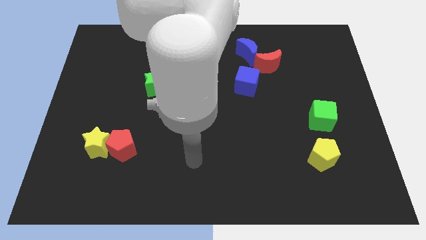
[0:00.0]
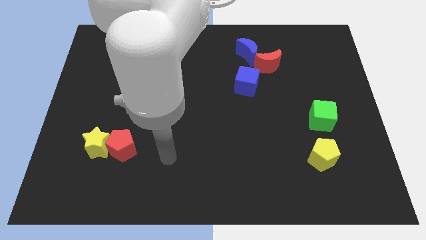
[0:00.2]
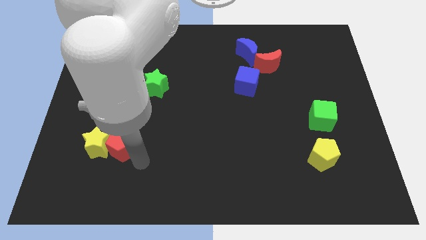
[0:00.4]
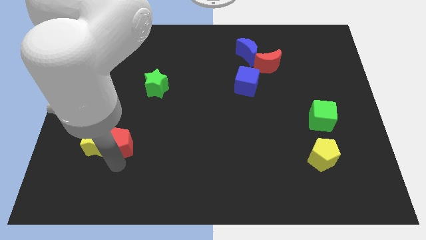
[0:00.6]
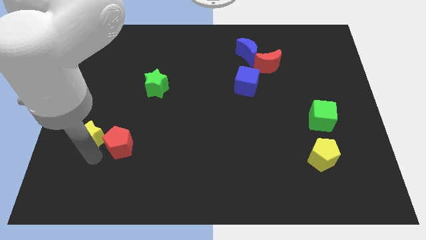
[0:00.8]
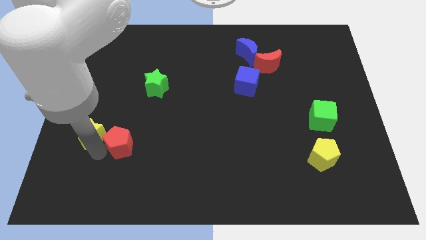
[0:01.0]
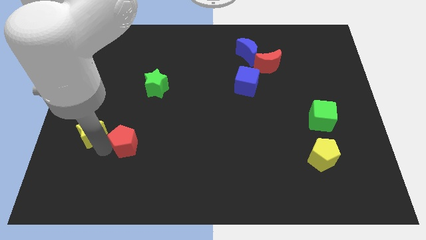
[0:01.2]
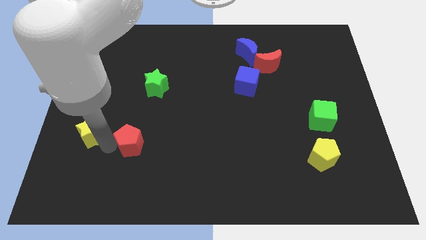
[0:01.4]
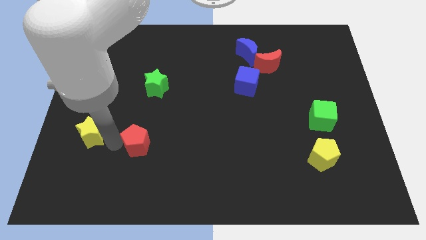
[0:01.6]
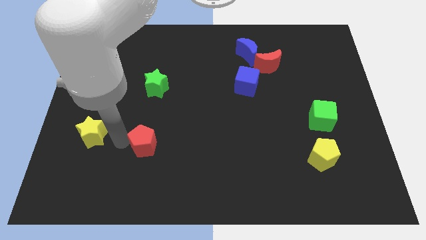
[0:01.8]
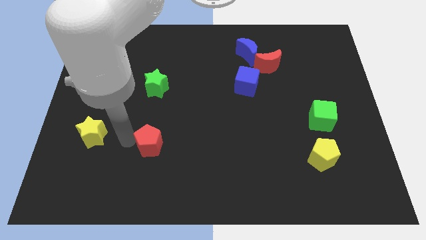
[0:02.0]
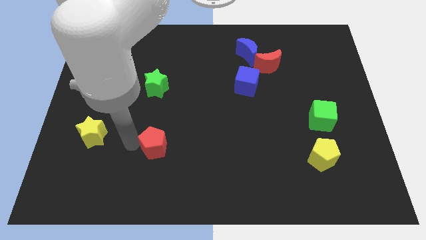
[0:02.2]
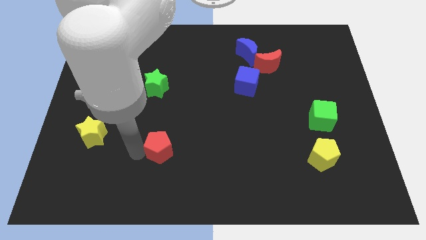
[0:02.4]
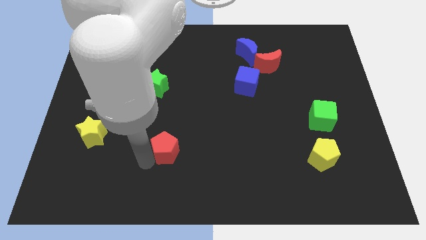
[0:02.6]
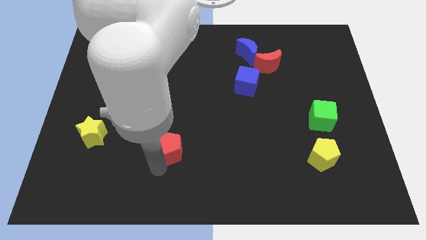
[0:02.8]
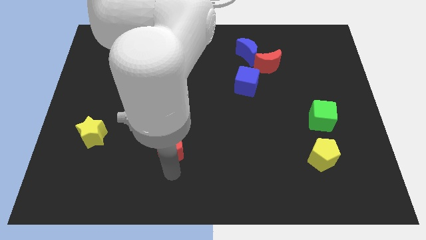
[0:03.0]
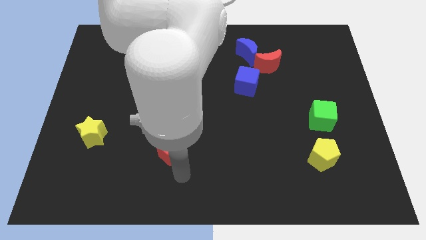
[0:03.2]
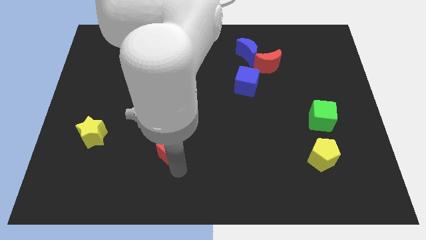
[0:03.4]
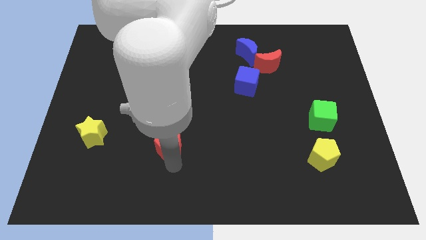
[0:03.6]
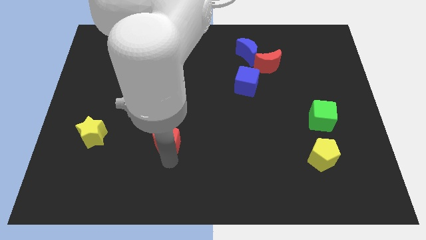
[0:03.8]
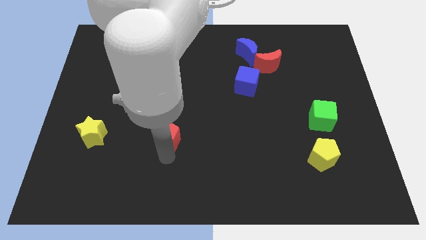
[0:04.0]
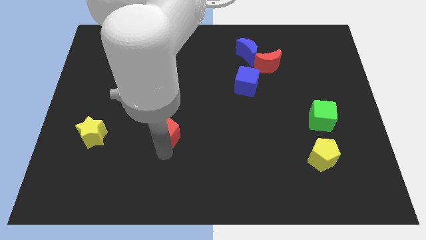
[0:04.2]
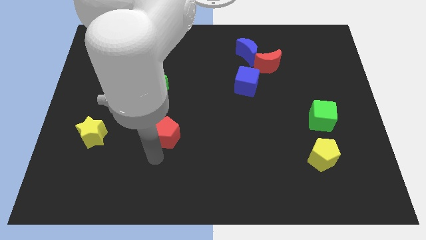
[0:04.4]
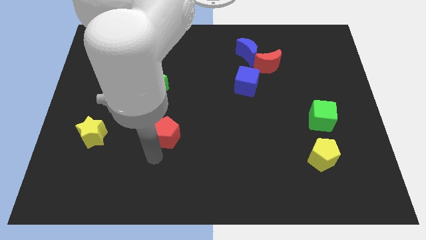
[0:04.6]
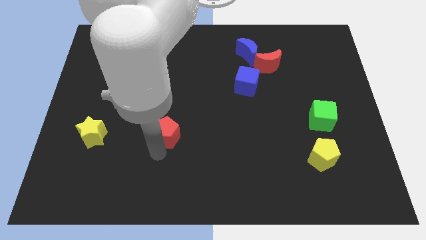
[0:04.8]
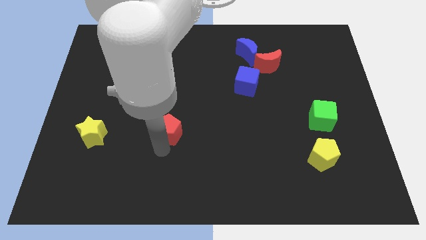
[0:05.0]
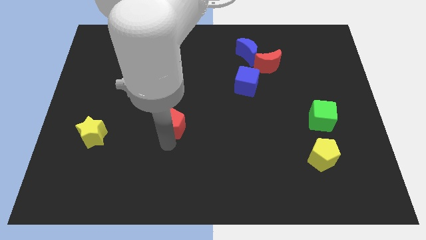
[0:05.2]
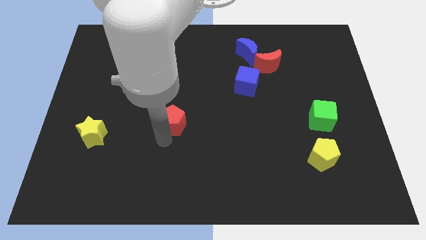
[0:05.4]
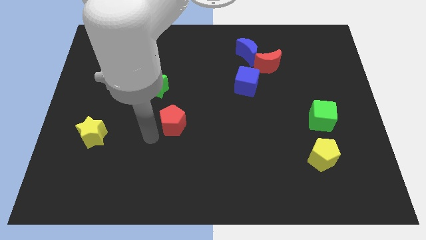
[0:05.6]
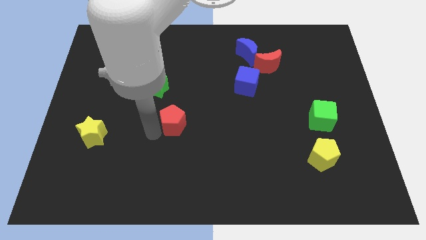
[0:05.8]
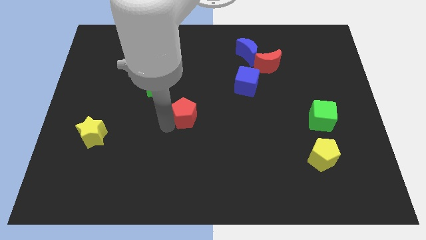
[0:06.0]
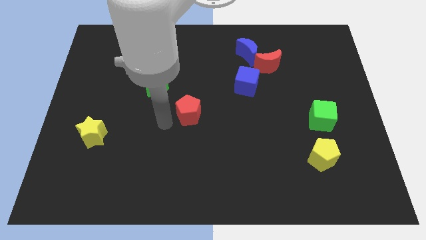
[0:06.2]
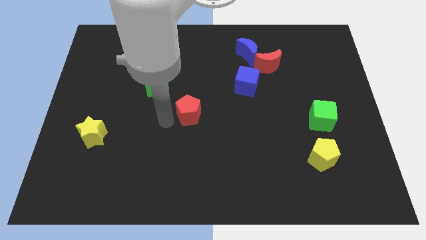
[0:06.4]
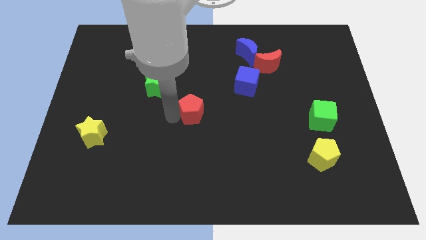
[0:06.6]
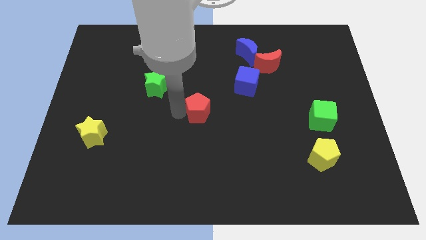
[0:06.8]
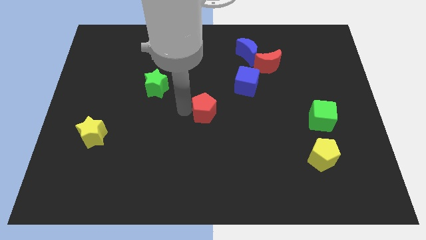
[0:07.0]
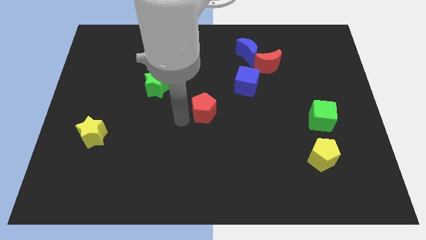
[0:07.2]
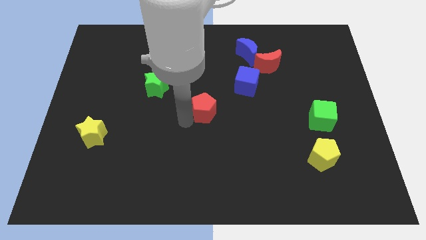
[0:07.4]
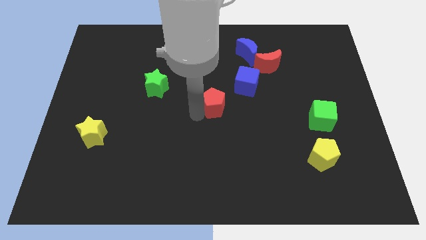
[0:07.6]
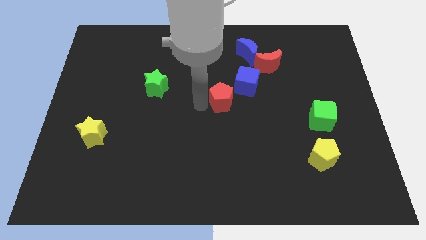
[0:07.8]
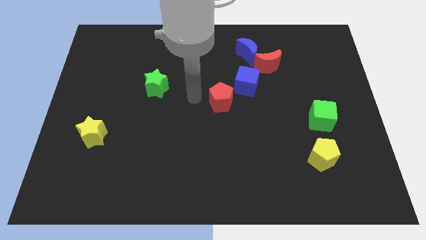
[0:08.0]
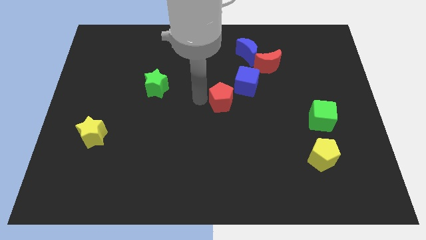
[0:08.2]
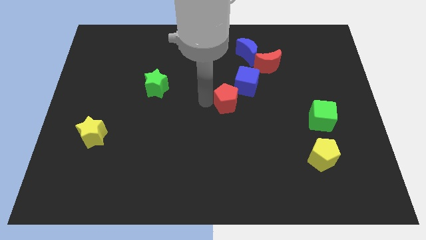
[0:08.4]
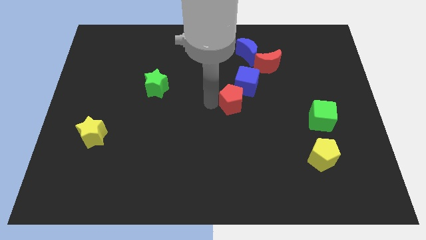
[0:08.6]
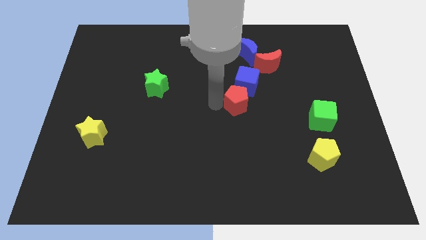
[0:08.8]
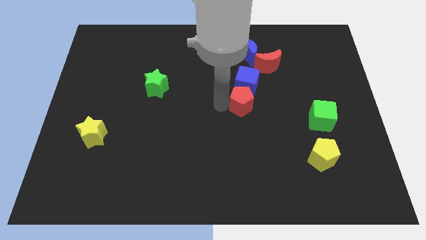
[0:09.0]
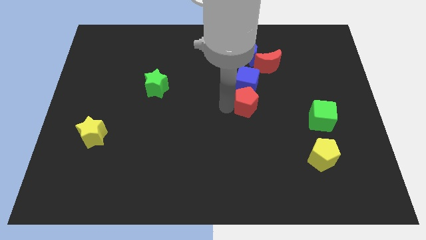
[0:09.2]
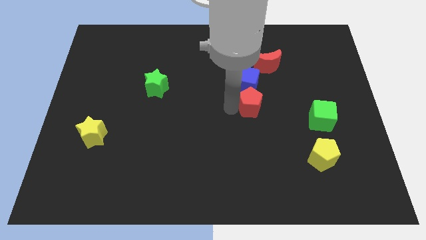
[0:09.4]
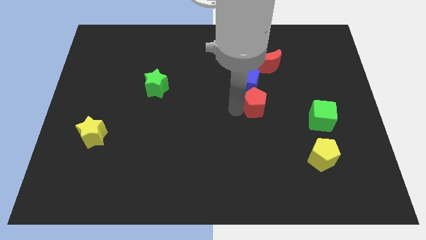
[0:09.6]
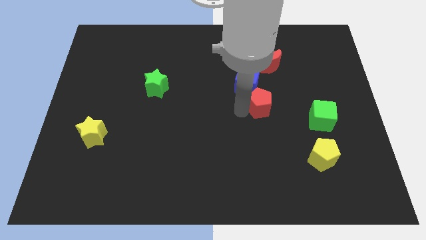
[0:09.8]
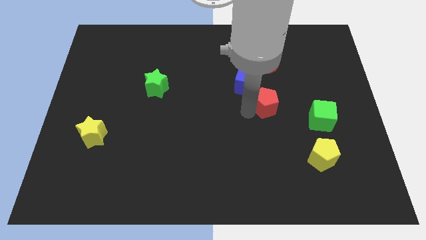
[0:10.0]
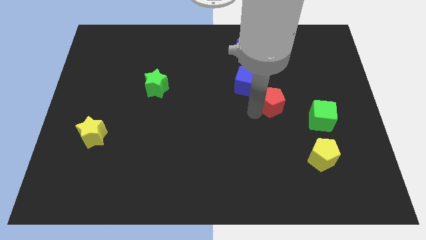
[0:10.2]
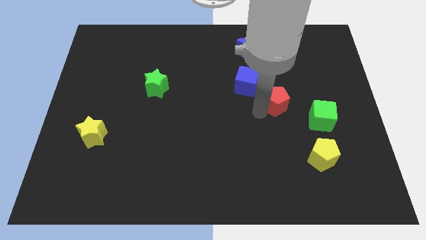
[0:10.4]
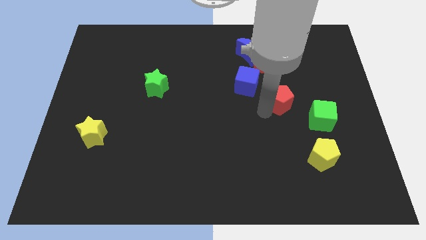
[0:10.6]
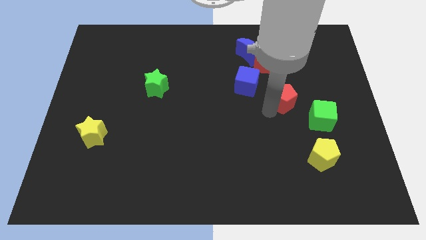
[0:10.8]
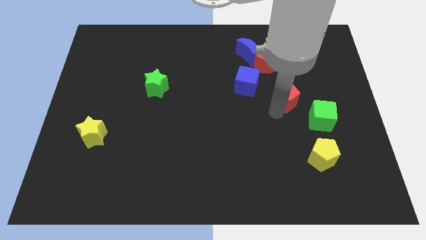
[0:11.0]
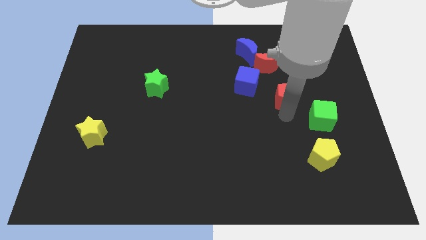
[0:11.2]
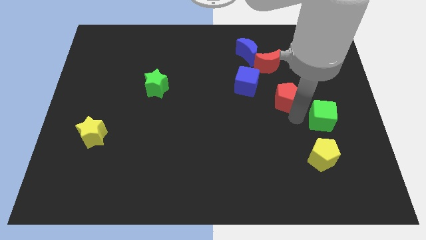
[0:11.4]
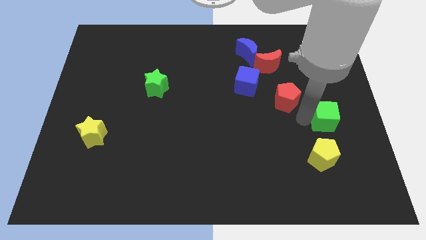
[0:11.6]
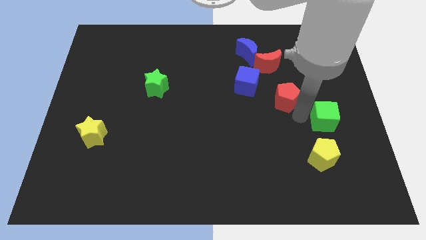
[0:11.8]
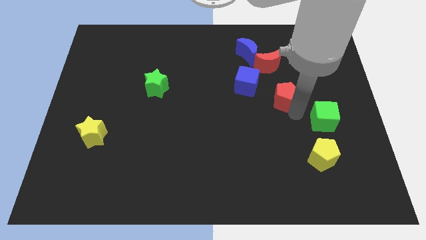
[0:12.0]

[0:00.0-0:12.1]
slide the red pentagon right of the blue cube

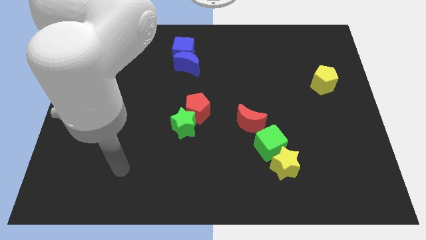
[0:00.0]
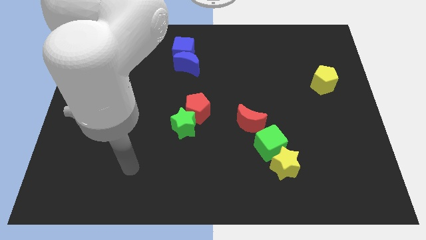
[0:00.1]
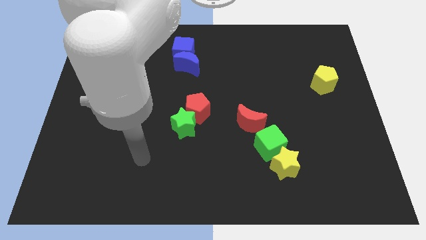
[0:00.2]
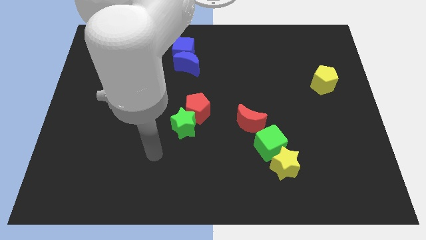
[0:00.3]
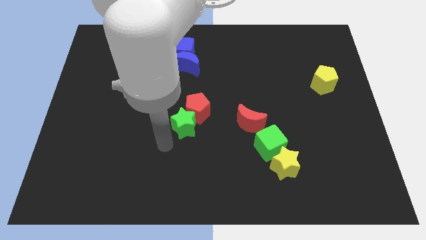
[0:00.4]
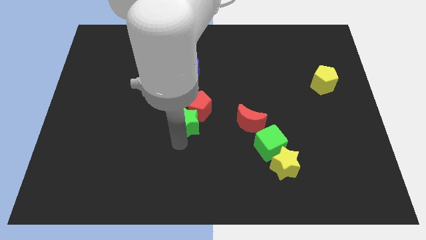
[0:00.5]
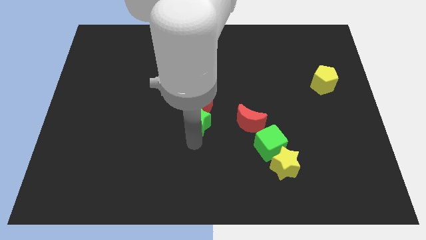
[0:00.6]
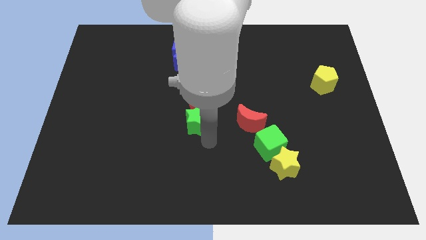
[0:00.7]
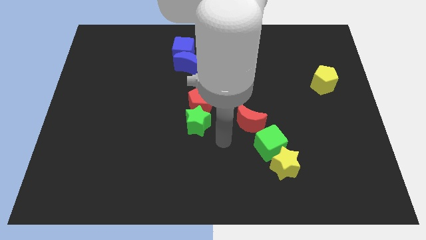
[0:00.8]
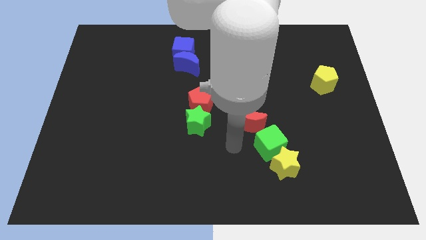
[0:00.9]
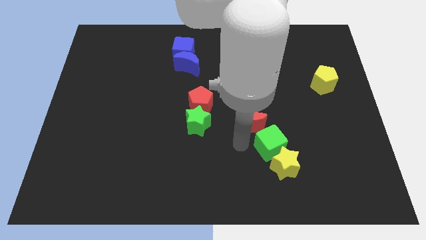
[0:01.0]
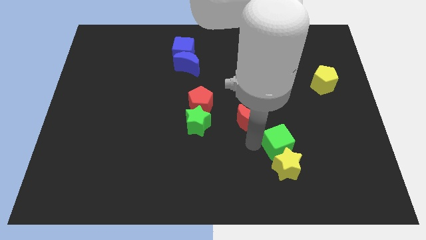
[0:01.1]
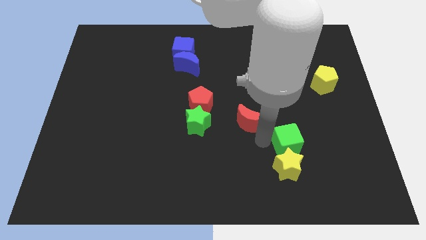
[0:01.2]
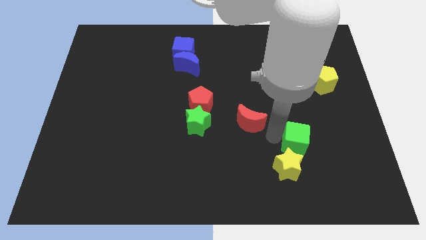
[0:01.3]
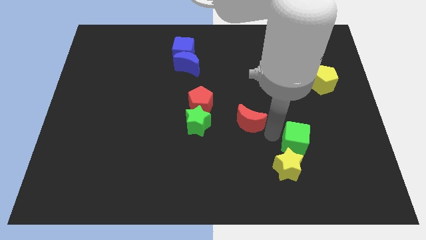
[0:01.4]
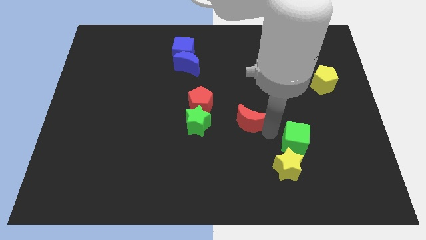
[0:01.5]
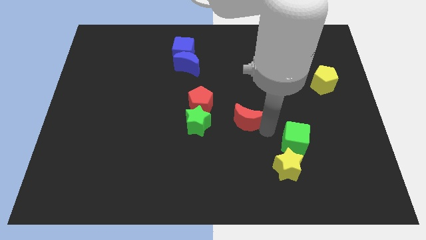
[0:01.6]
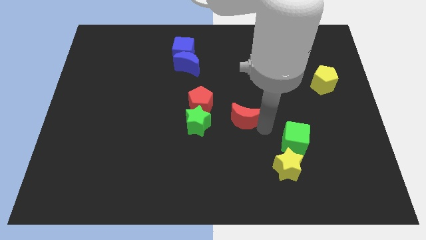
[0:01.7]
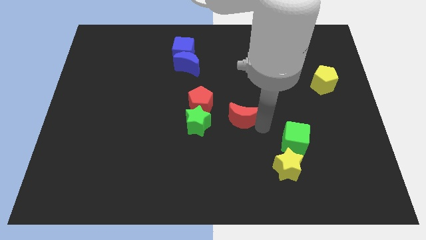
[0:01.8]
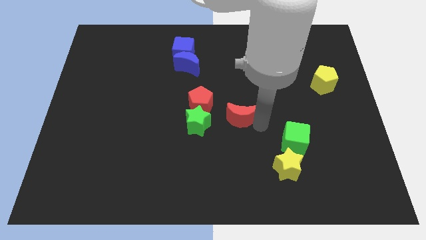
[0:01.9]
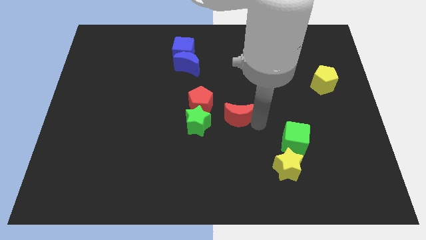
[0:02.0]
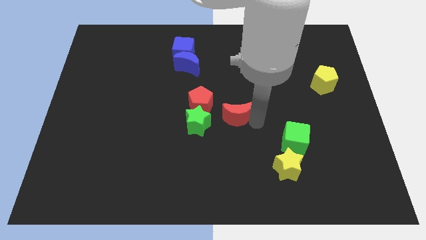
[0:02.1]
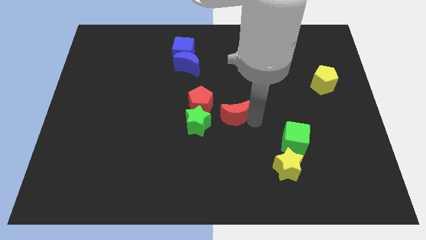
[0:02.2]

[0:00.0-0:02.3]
put the red moon to the top right side of the green star
